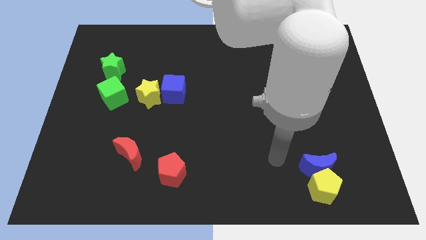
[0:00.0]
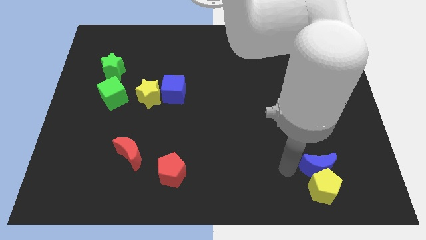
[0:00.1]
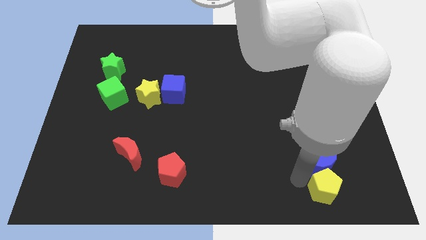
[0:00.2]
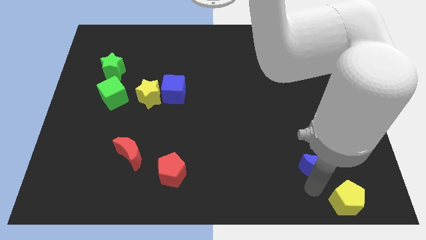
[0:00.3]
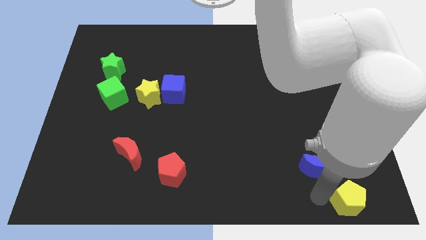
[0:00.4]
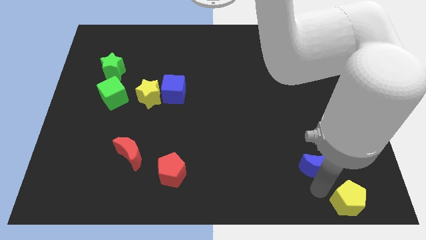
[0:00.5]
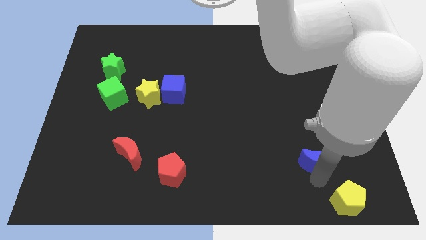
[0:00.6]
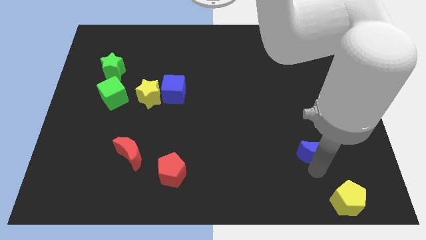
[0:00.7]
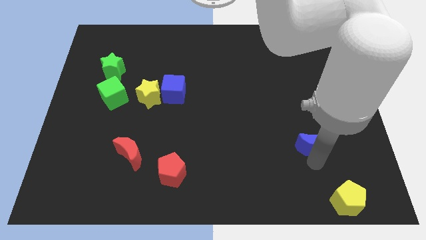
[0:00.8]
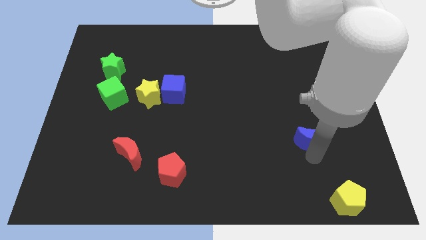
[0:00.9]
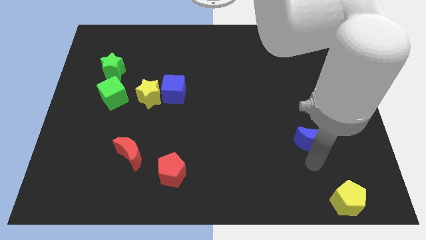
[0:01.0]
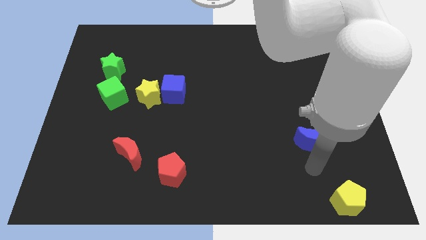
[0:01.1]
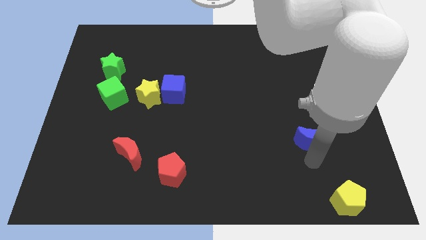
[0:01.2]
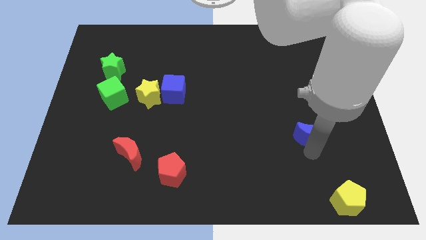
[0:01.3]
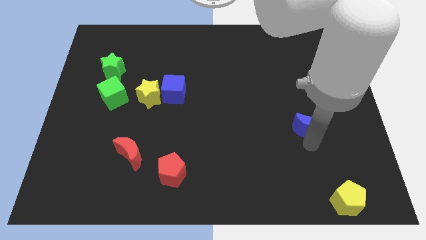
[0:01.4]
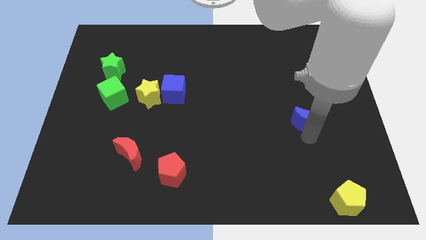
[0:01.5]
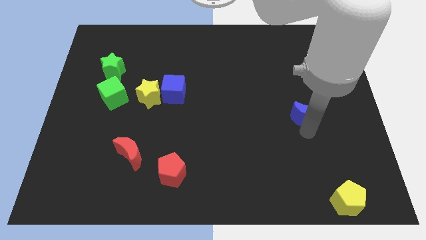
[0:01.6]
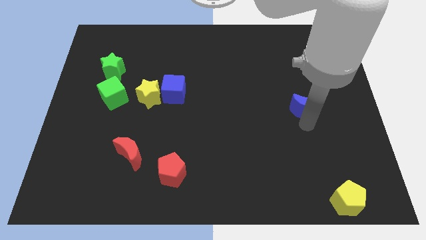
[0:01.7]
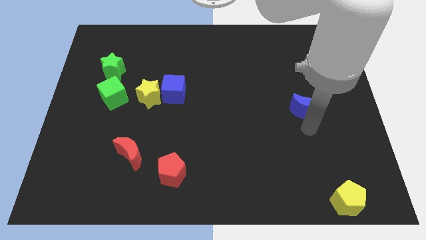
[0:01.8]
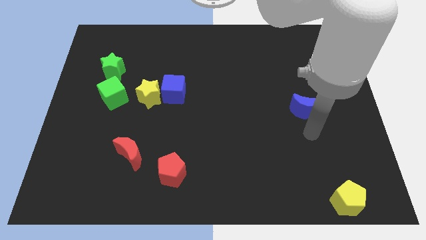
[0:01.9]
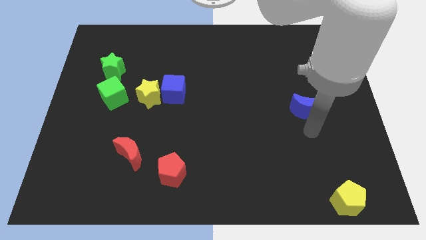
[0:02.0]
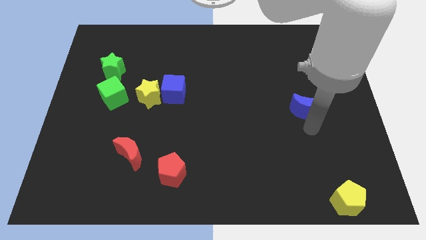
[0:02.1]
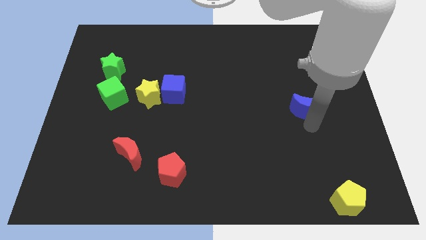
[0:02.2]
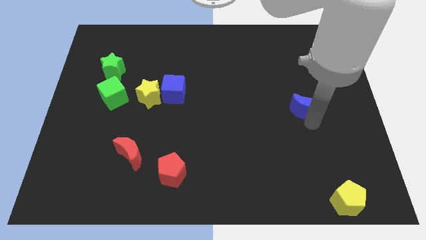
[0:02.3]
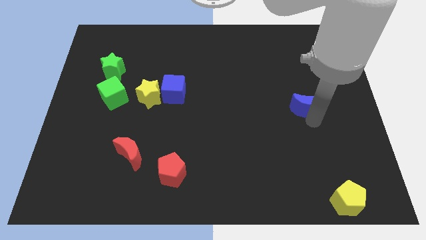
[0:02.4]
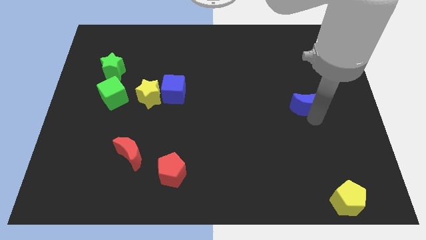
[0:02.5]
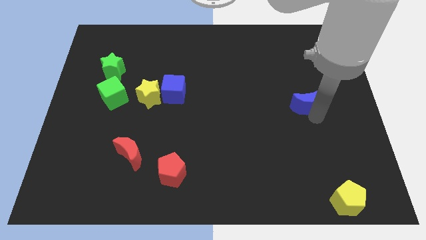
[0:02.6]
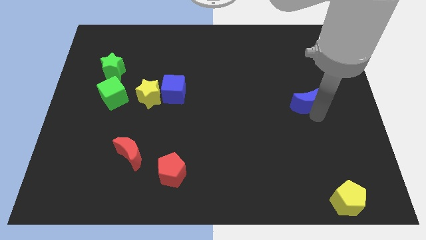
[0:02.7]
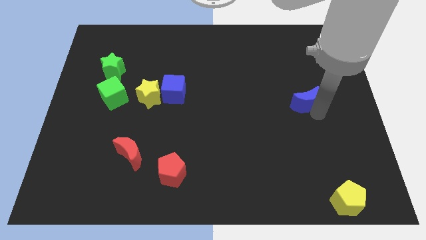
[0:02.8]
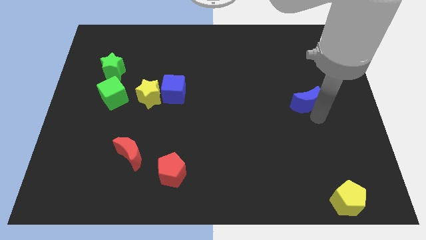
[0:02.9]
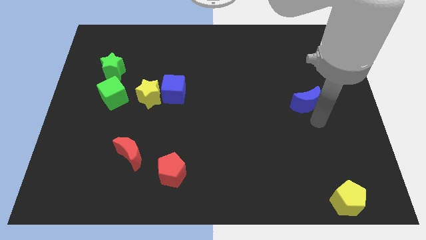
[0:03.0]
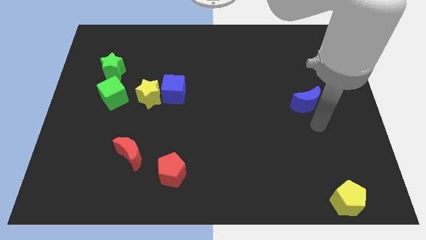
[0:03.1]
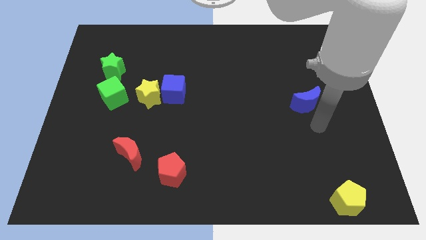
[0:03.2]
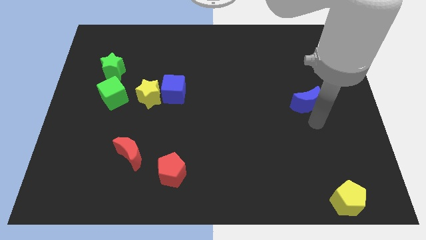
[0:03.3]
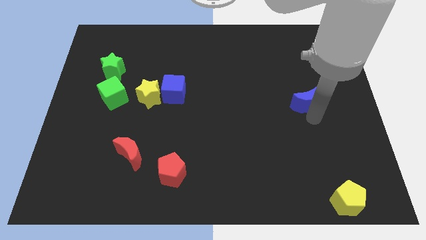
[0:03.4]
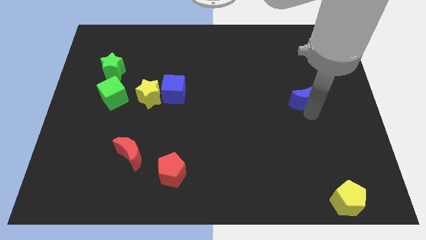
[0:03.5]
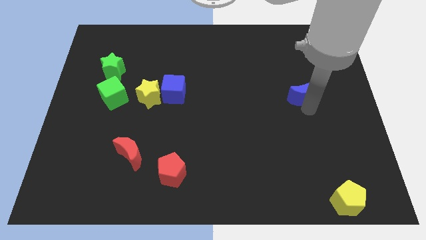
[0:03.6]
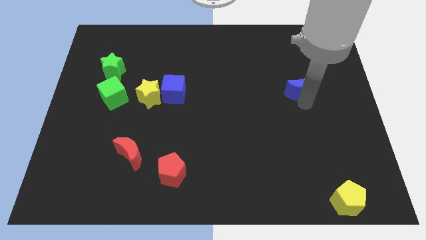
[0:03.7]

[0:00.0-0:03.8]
push the blue moon upwards

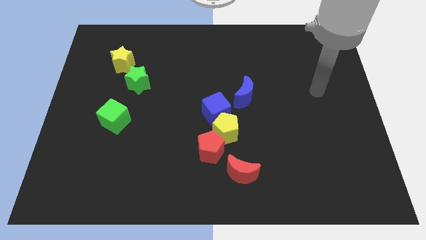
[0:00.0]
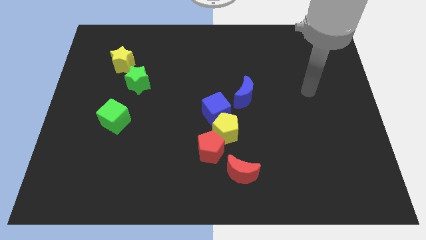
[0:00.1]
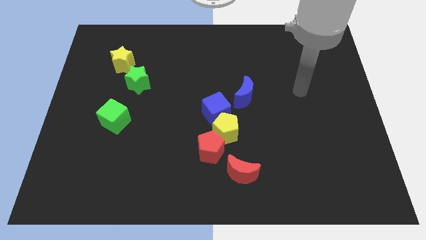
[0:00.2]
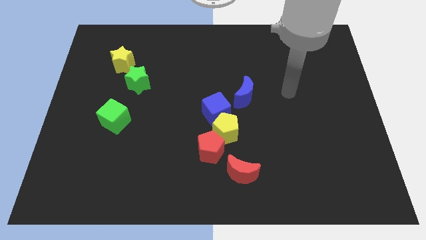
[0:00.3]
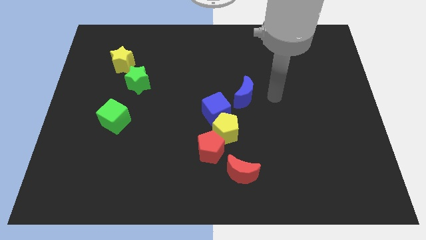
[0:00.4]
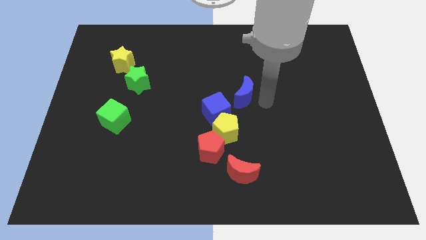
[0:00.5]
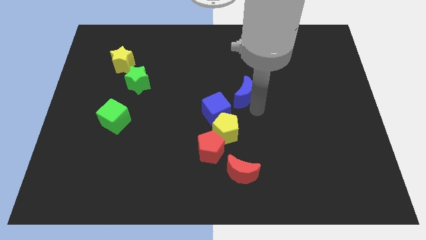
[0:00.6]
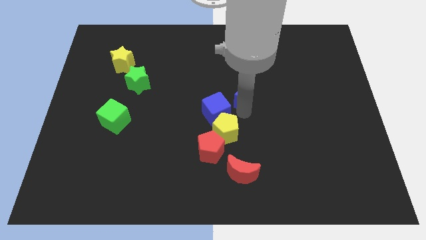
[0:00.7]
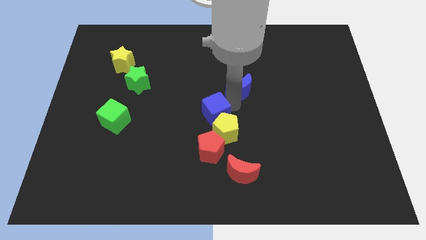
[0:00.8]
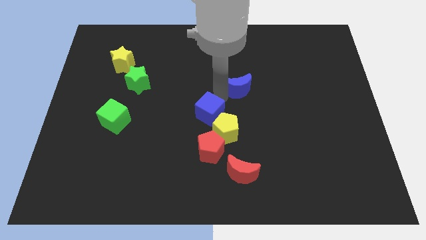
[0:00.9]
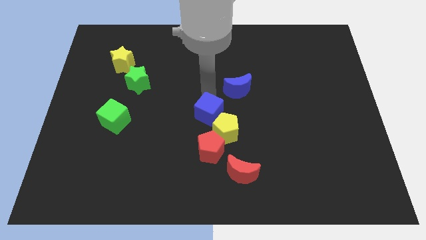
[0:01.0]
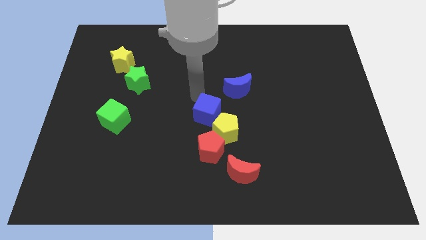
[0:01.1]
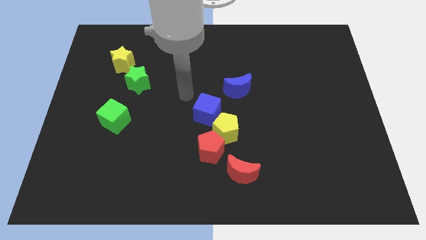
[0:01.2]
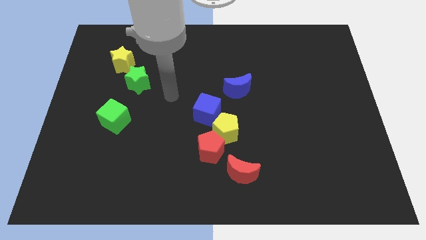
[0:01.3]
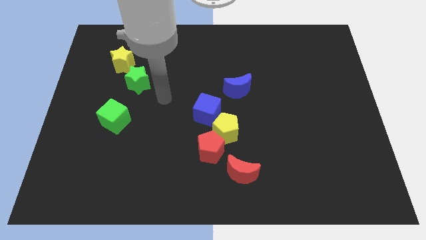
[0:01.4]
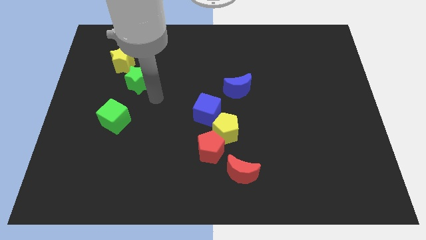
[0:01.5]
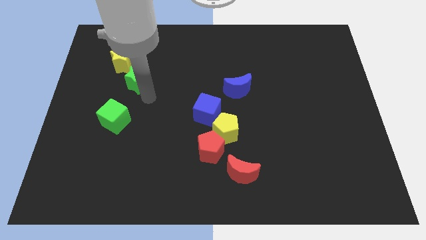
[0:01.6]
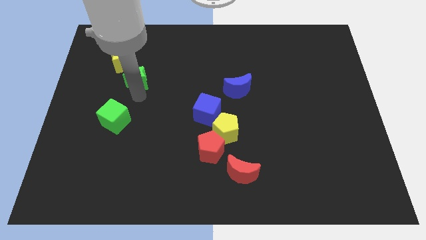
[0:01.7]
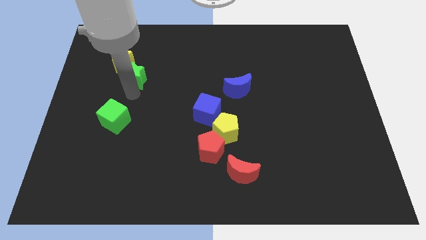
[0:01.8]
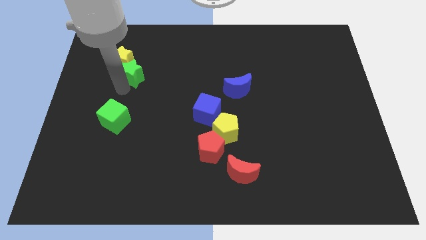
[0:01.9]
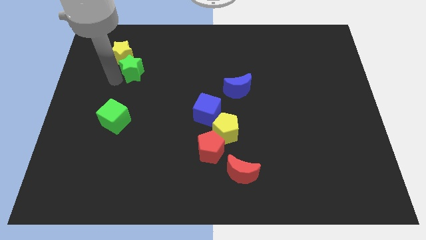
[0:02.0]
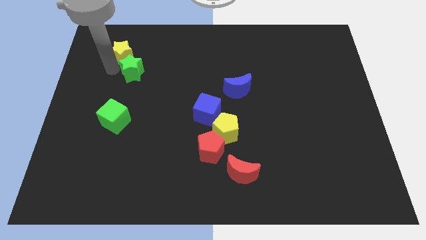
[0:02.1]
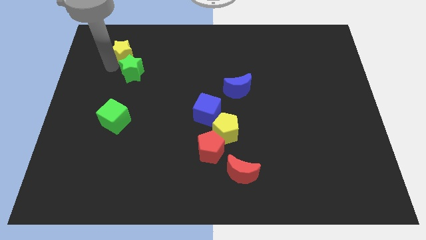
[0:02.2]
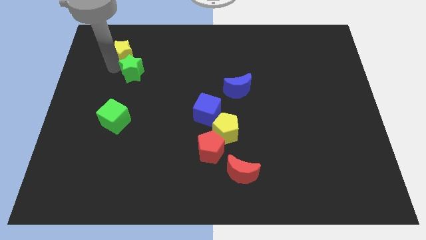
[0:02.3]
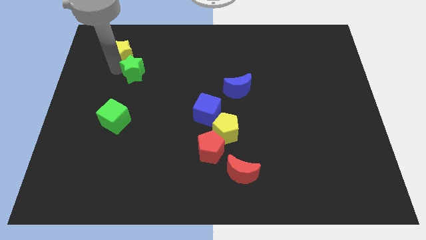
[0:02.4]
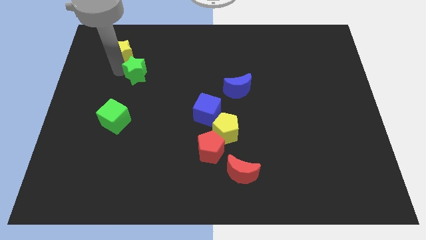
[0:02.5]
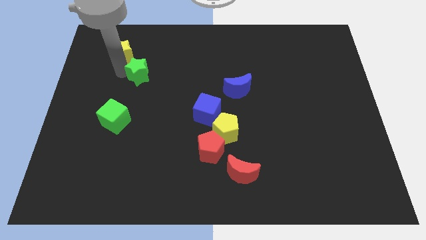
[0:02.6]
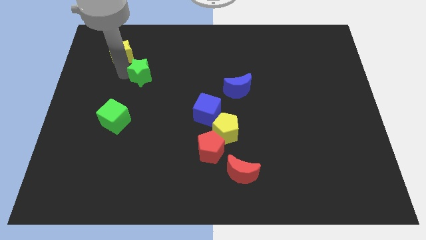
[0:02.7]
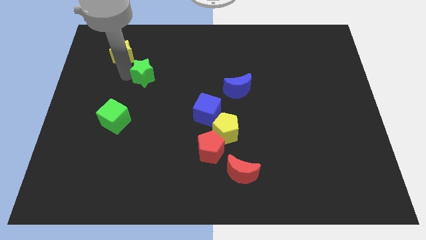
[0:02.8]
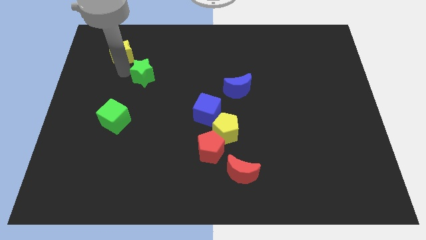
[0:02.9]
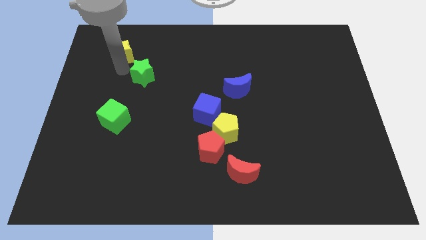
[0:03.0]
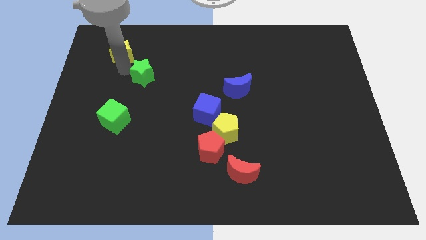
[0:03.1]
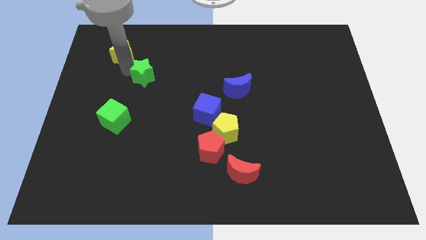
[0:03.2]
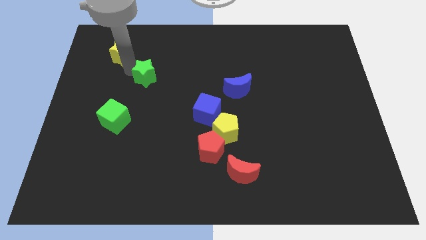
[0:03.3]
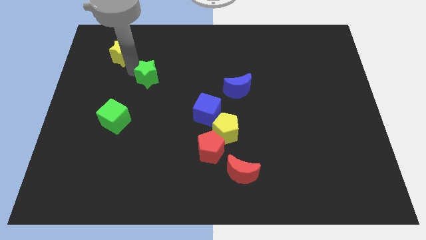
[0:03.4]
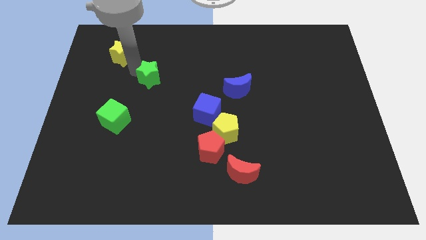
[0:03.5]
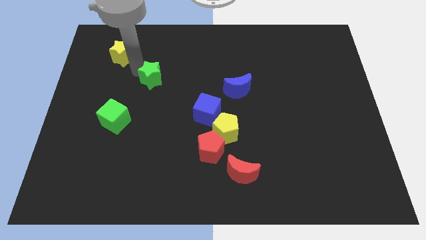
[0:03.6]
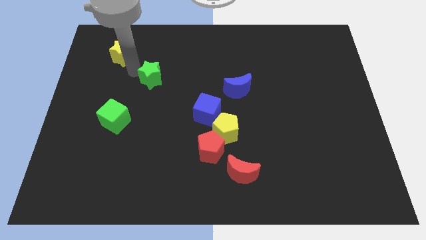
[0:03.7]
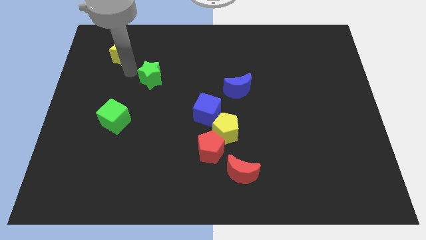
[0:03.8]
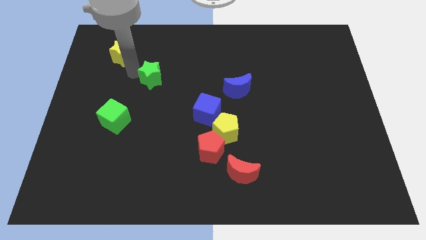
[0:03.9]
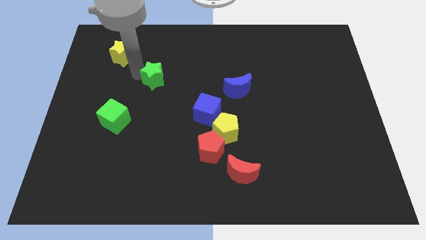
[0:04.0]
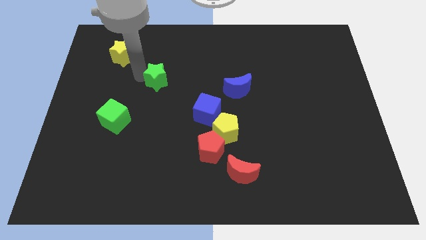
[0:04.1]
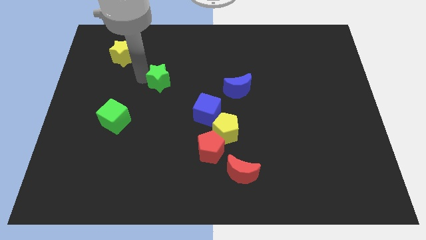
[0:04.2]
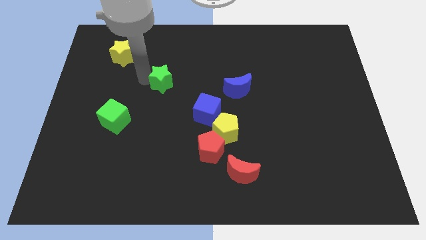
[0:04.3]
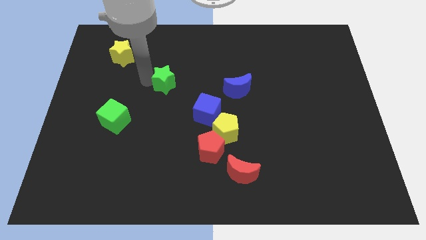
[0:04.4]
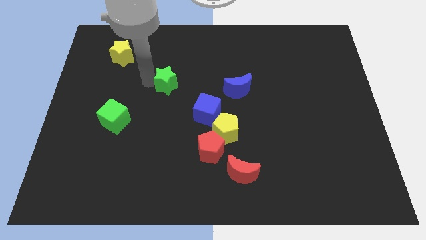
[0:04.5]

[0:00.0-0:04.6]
push the green star somewhat to the right
